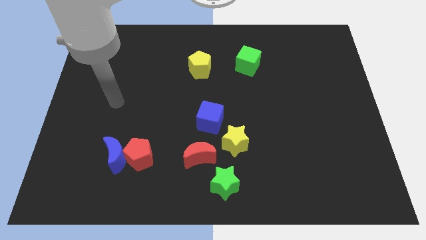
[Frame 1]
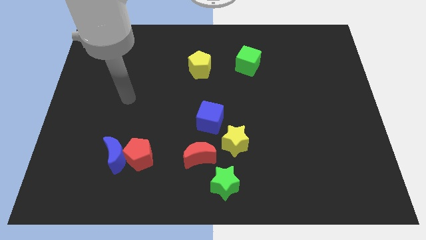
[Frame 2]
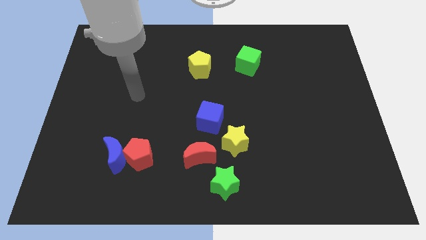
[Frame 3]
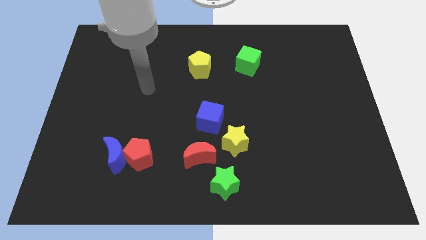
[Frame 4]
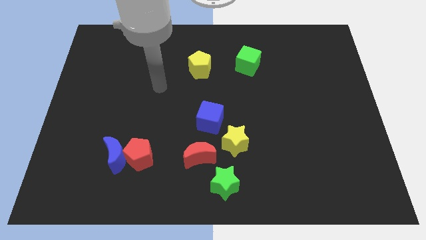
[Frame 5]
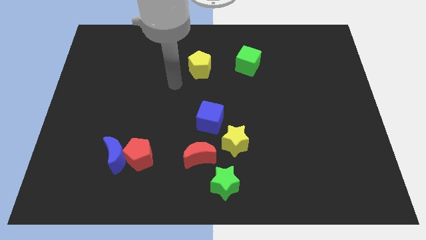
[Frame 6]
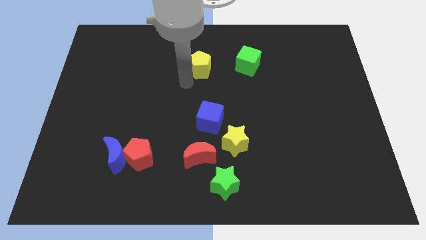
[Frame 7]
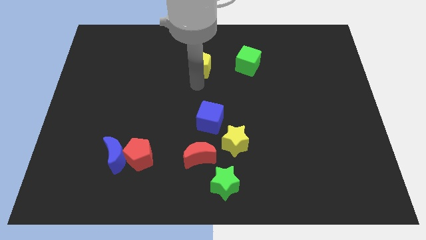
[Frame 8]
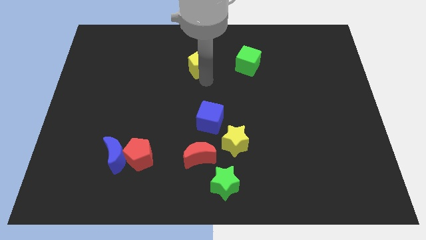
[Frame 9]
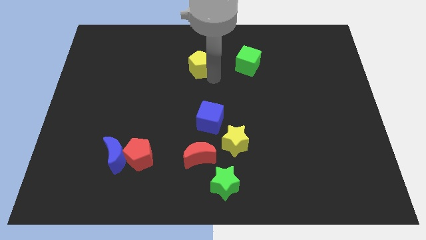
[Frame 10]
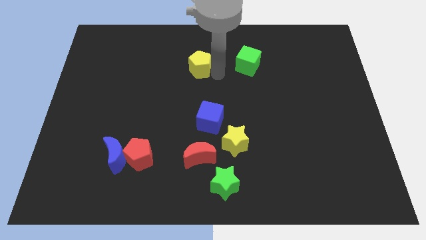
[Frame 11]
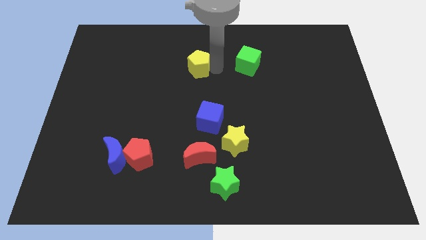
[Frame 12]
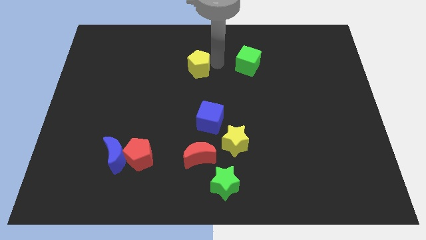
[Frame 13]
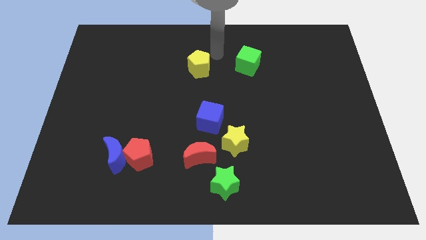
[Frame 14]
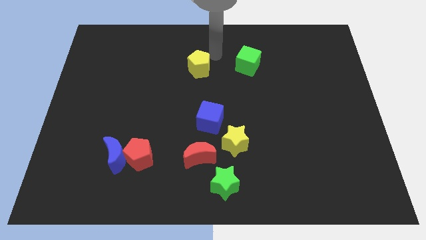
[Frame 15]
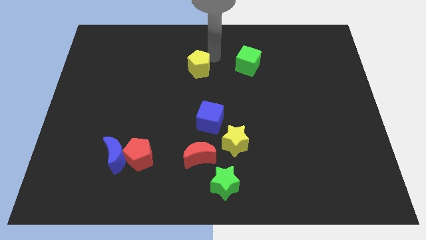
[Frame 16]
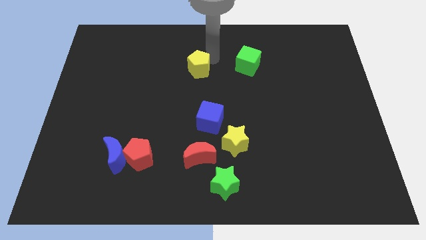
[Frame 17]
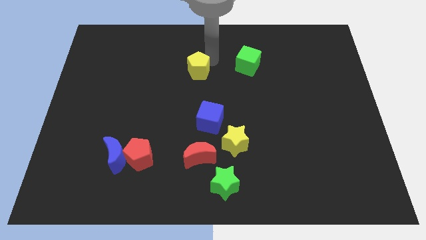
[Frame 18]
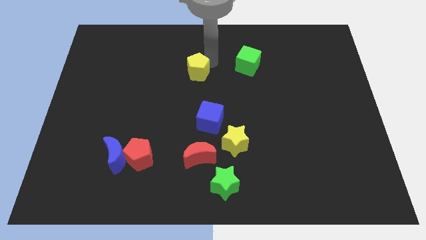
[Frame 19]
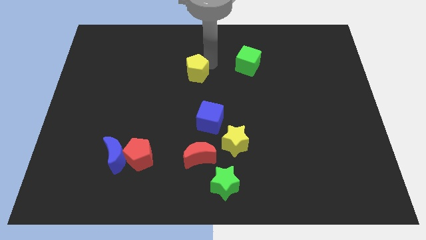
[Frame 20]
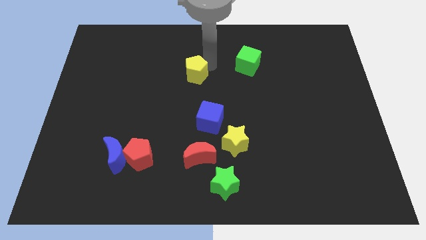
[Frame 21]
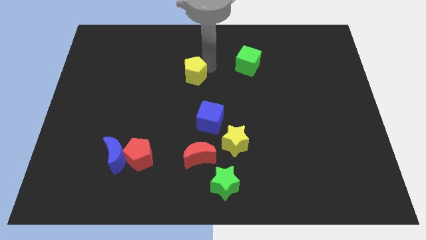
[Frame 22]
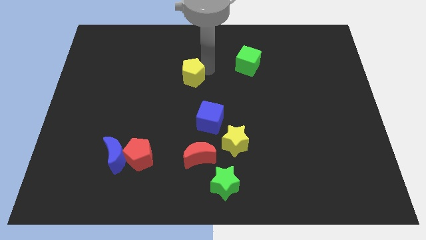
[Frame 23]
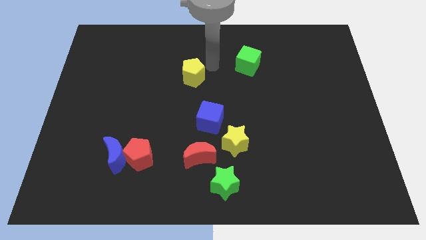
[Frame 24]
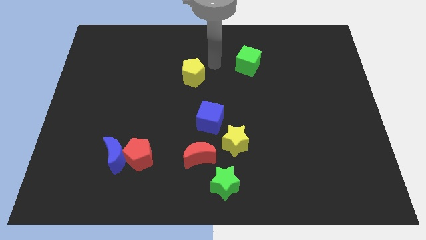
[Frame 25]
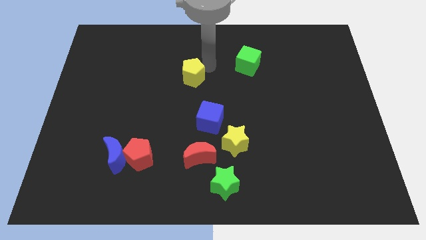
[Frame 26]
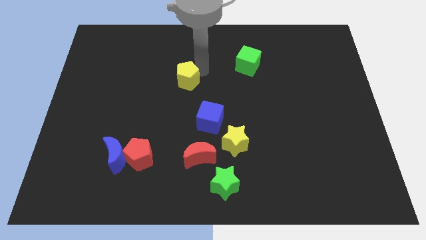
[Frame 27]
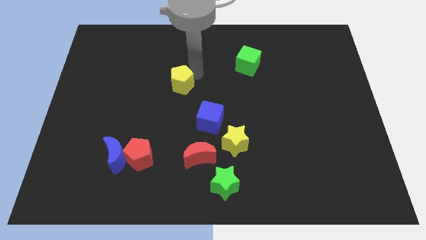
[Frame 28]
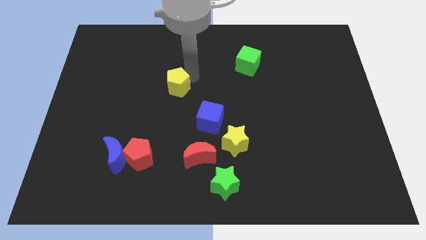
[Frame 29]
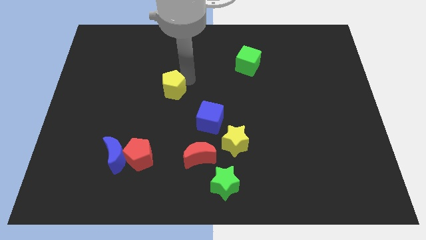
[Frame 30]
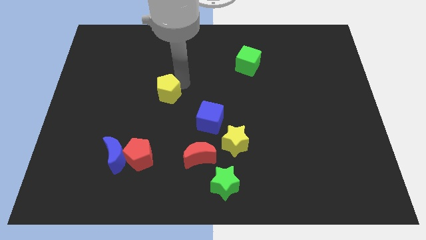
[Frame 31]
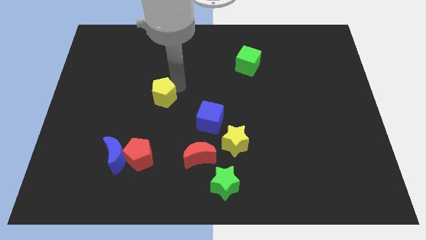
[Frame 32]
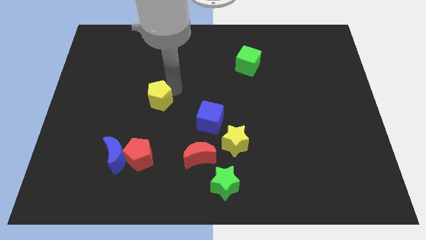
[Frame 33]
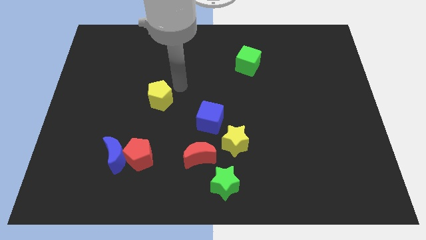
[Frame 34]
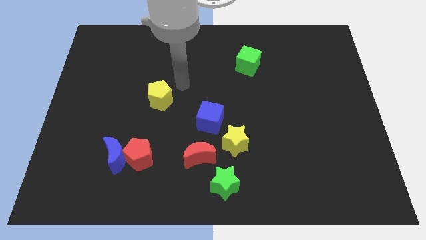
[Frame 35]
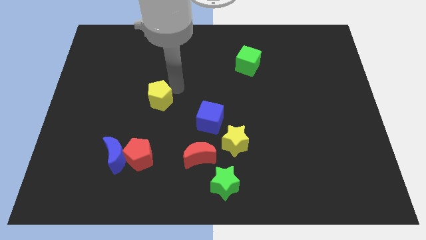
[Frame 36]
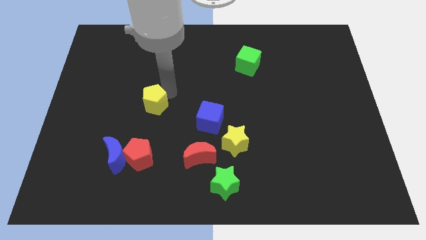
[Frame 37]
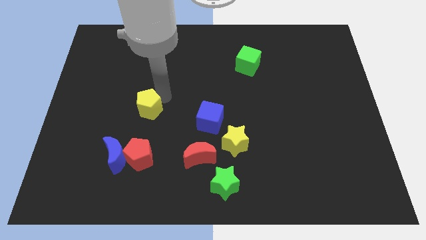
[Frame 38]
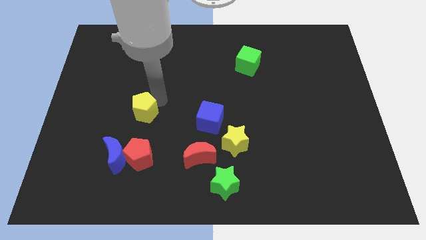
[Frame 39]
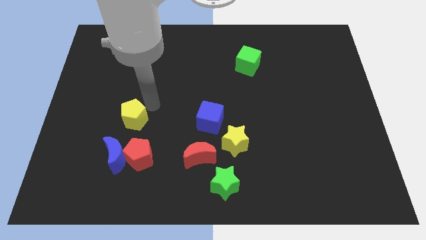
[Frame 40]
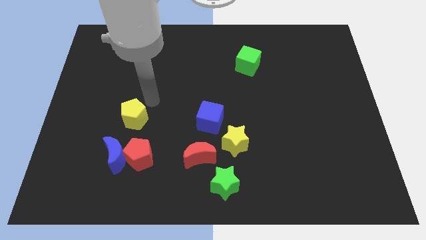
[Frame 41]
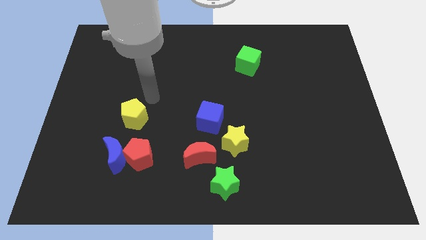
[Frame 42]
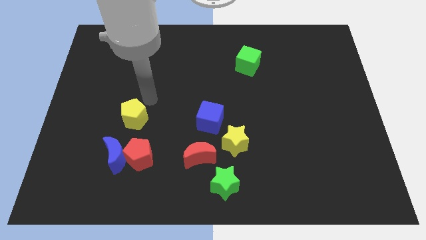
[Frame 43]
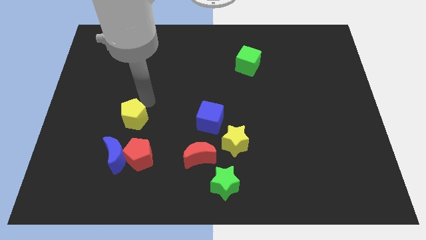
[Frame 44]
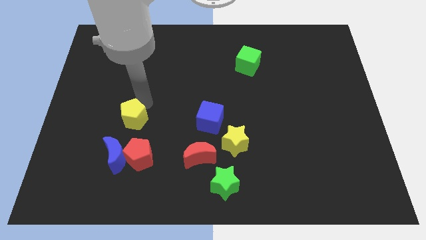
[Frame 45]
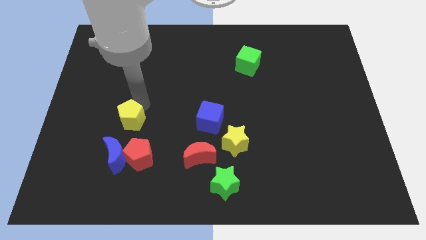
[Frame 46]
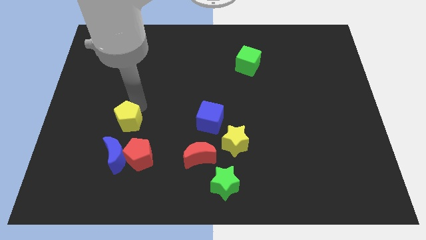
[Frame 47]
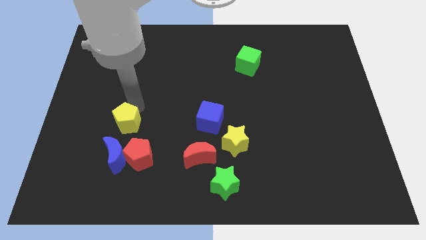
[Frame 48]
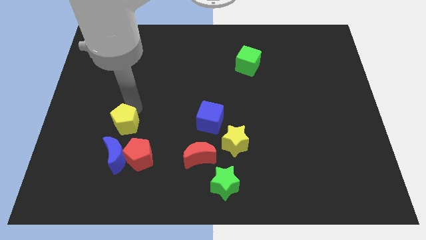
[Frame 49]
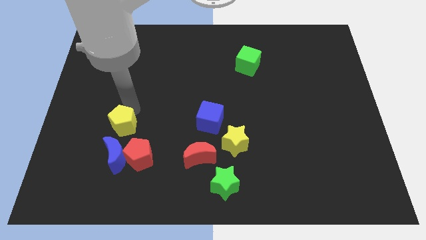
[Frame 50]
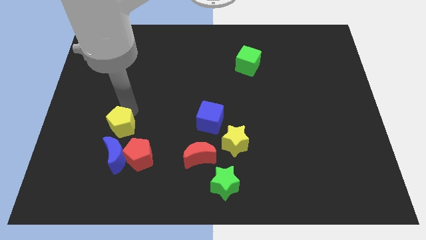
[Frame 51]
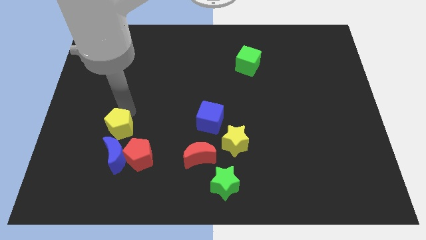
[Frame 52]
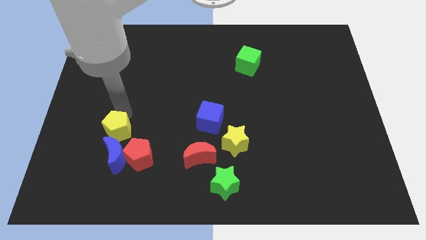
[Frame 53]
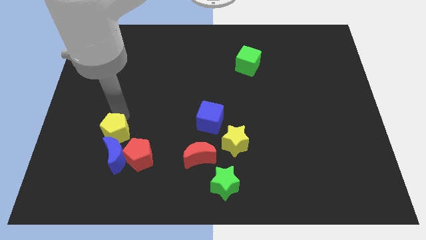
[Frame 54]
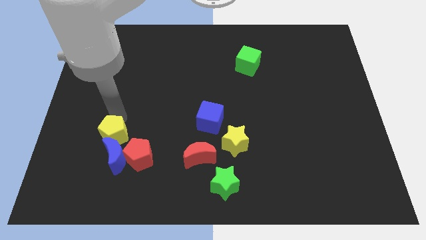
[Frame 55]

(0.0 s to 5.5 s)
slide the yellow pentagon close to the blue moon

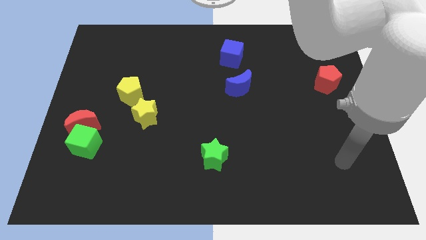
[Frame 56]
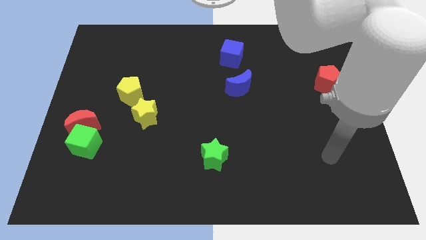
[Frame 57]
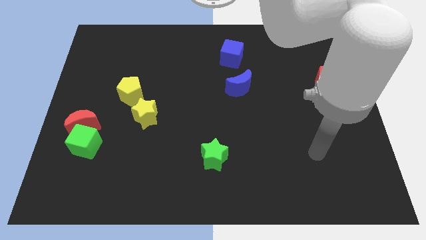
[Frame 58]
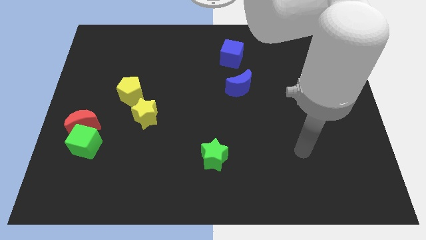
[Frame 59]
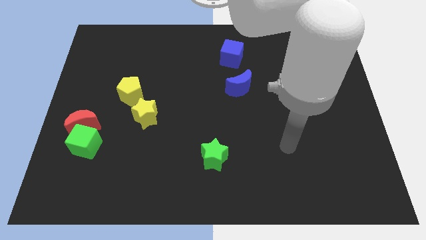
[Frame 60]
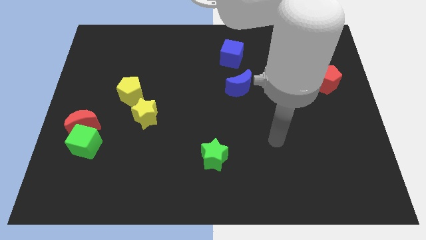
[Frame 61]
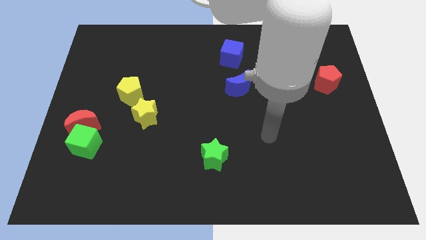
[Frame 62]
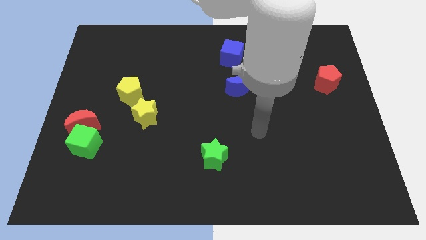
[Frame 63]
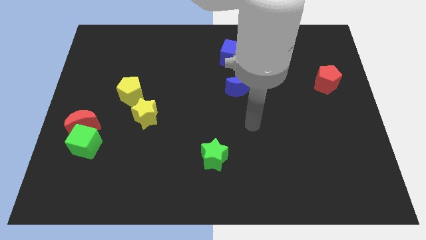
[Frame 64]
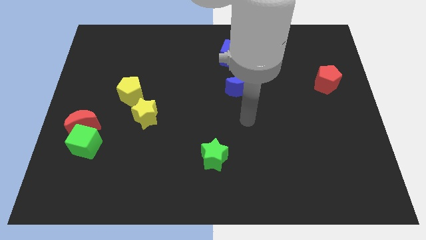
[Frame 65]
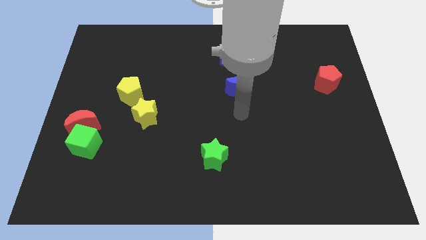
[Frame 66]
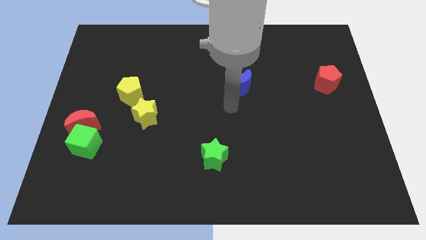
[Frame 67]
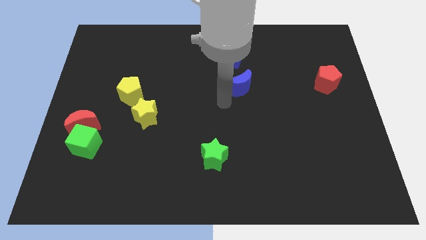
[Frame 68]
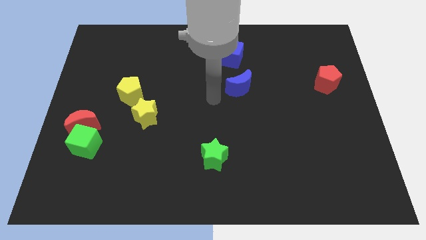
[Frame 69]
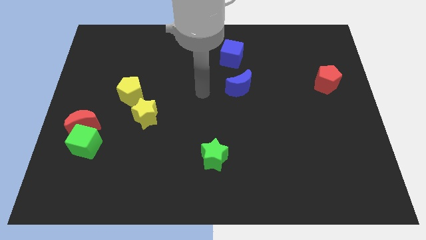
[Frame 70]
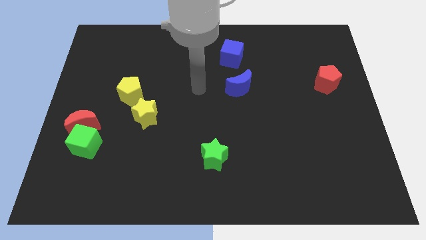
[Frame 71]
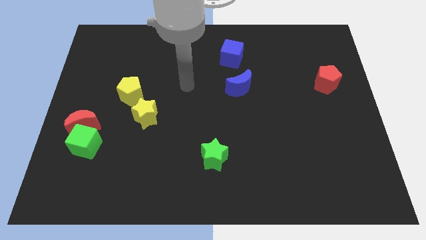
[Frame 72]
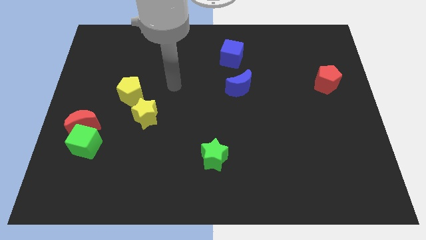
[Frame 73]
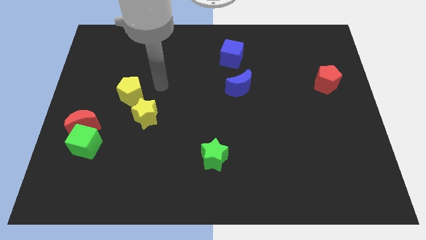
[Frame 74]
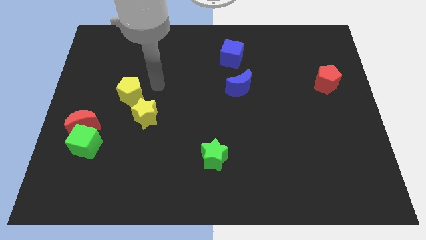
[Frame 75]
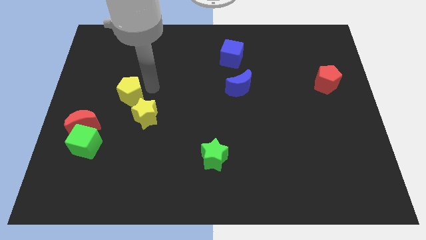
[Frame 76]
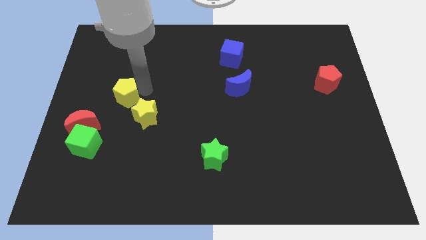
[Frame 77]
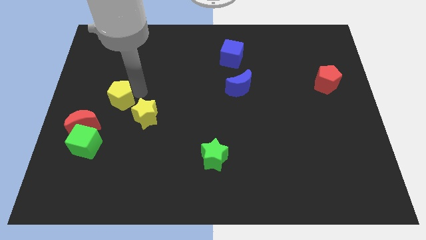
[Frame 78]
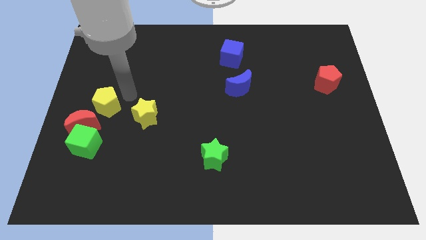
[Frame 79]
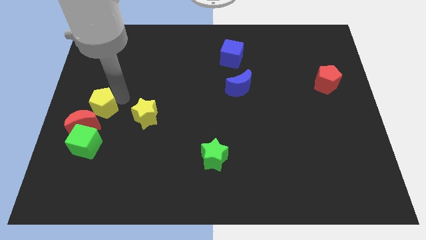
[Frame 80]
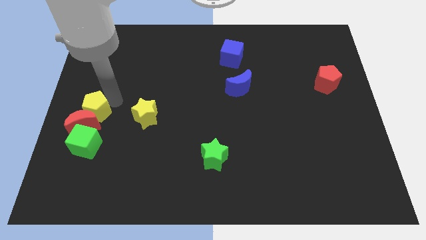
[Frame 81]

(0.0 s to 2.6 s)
slide the yellow pentagon to the red moon
